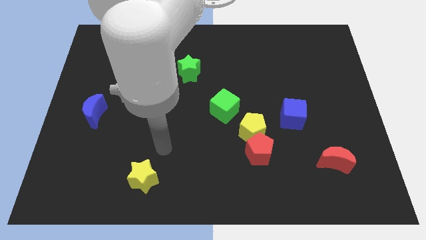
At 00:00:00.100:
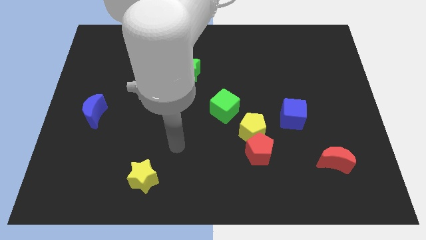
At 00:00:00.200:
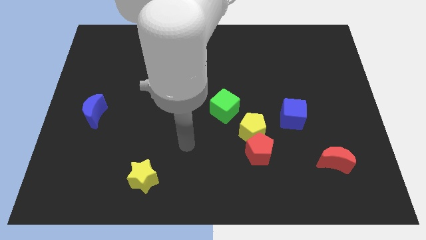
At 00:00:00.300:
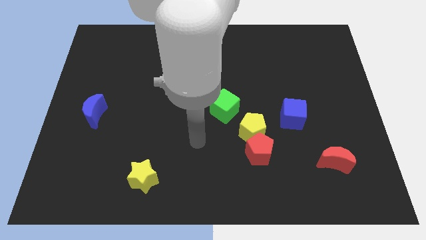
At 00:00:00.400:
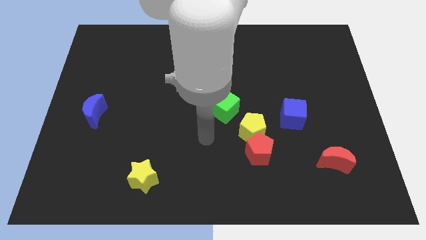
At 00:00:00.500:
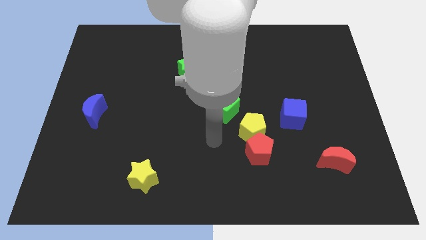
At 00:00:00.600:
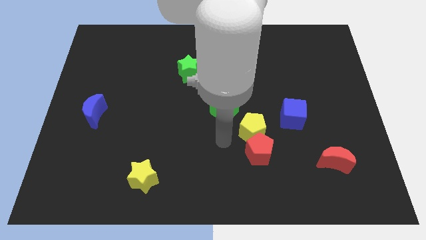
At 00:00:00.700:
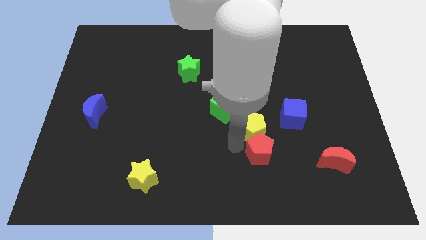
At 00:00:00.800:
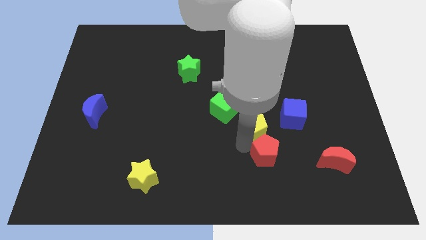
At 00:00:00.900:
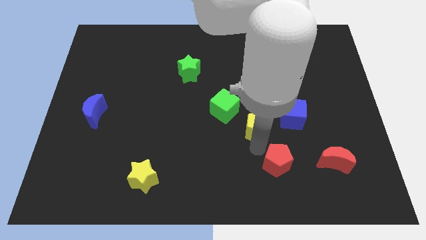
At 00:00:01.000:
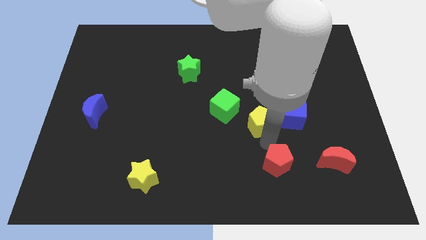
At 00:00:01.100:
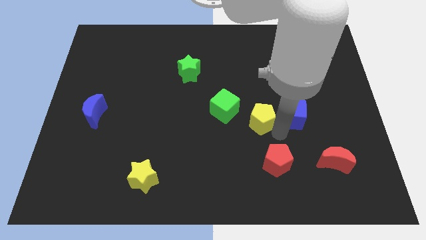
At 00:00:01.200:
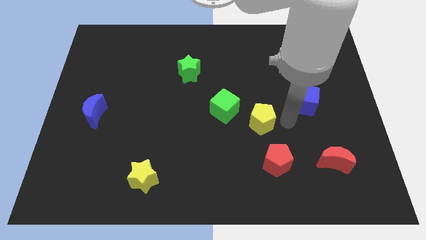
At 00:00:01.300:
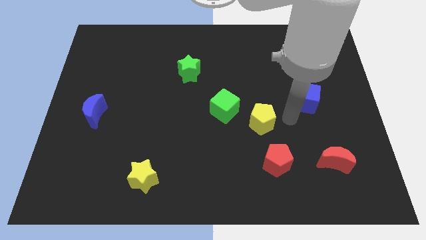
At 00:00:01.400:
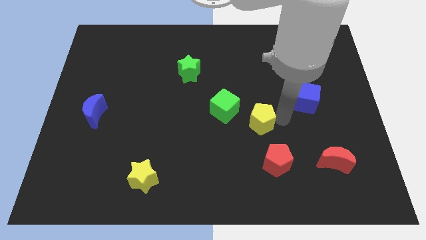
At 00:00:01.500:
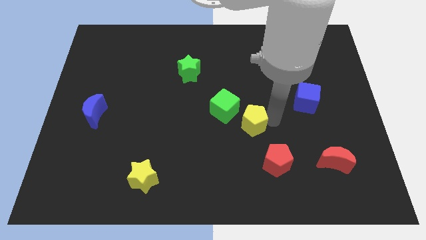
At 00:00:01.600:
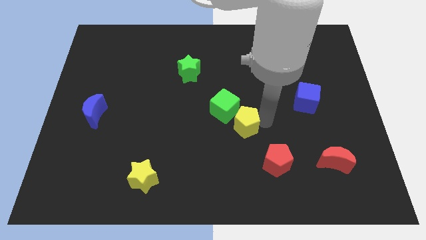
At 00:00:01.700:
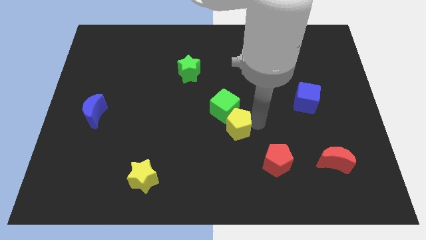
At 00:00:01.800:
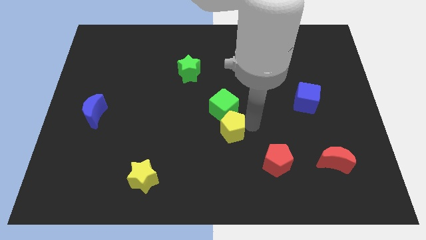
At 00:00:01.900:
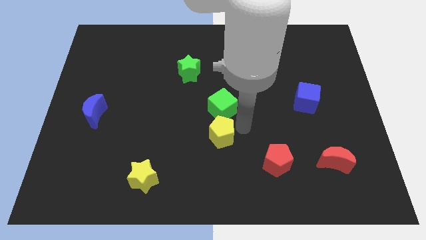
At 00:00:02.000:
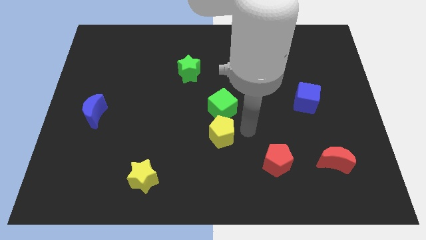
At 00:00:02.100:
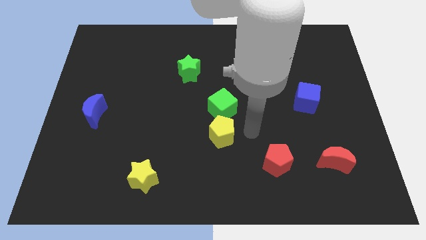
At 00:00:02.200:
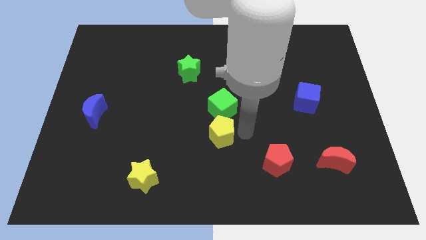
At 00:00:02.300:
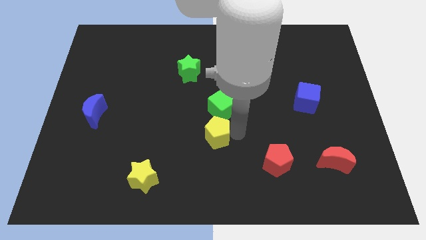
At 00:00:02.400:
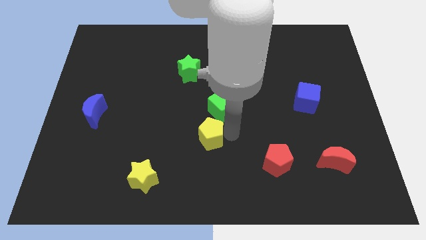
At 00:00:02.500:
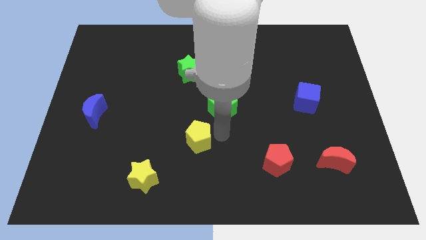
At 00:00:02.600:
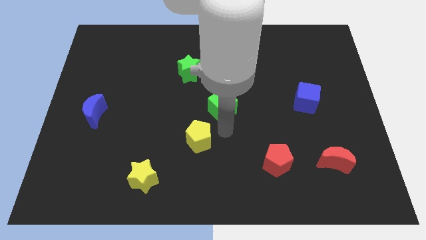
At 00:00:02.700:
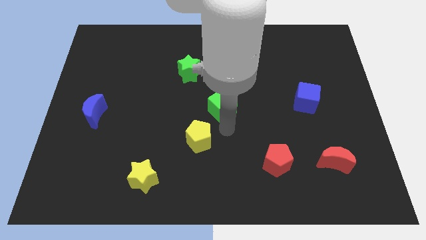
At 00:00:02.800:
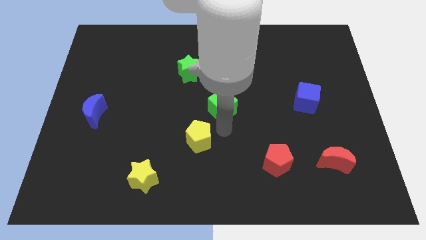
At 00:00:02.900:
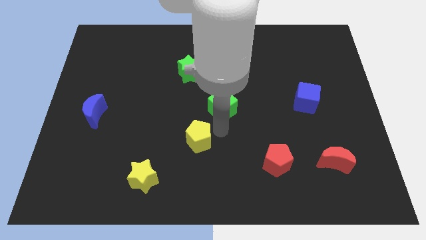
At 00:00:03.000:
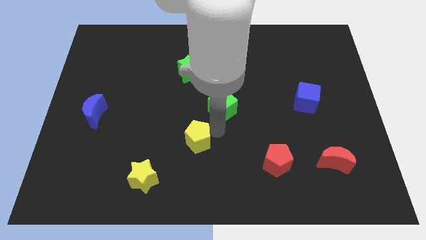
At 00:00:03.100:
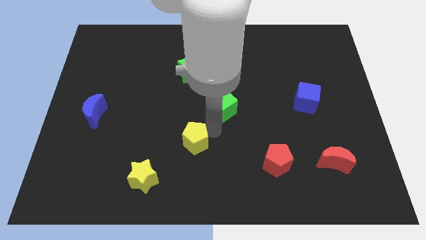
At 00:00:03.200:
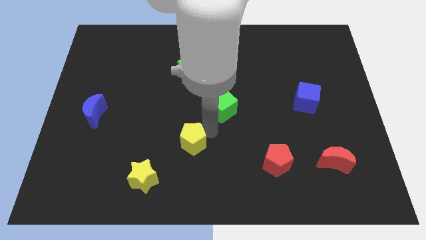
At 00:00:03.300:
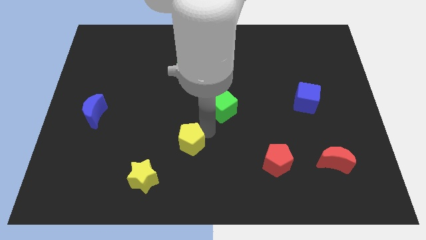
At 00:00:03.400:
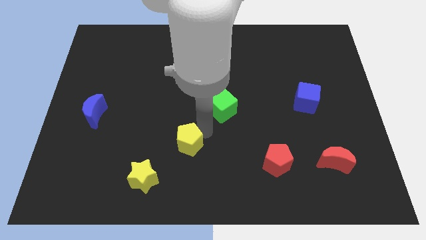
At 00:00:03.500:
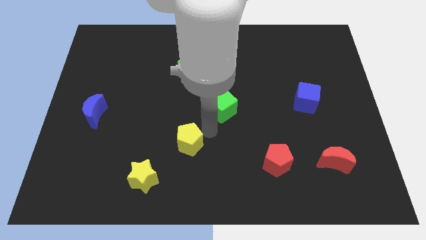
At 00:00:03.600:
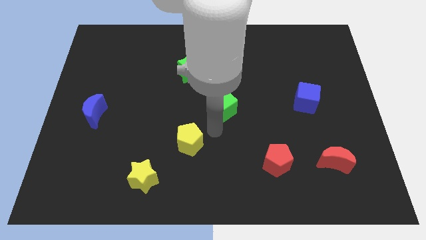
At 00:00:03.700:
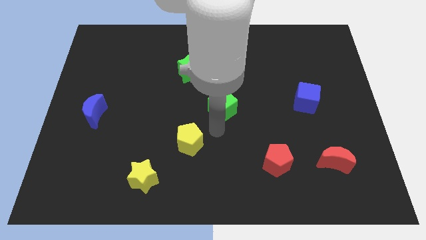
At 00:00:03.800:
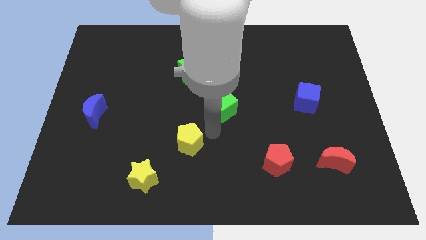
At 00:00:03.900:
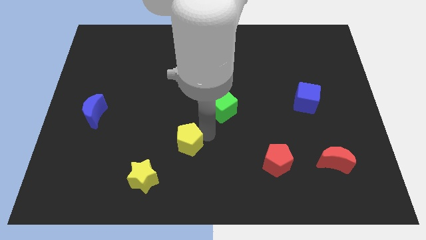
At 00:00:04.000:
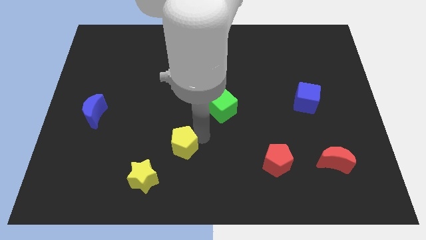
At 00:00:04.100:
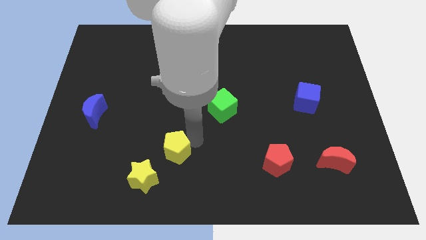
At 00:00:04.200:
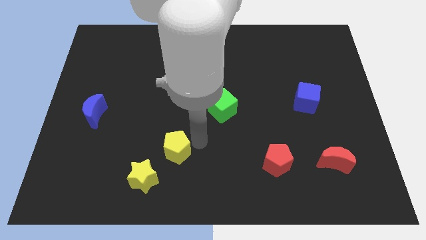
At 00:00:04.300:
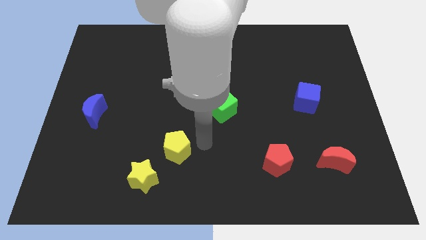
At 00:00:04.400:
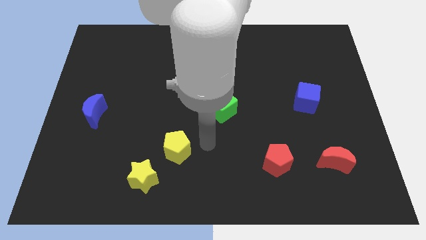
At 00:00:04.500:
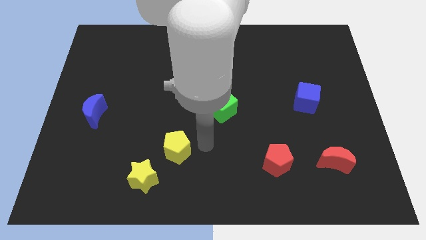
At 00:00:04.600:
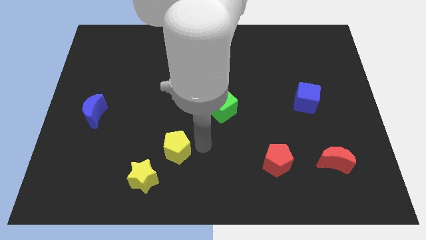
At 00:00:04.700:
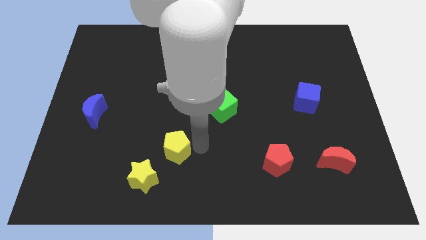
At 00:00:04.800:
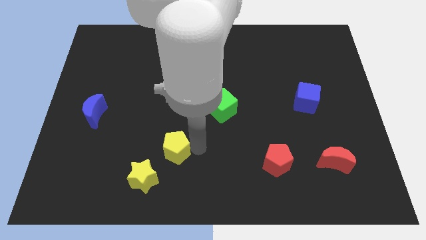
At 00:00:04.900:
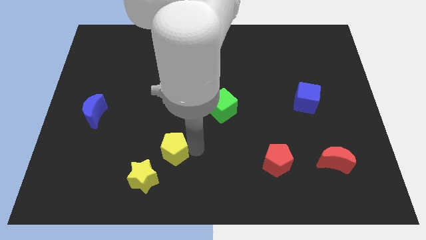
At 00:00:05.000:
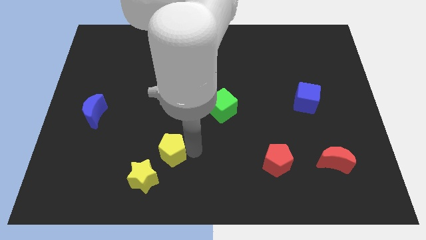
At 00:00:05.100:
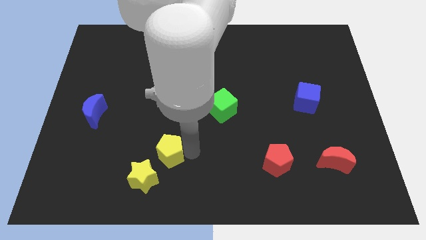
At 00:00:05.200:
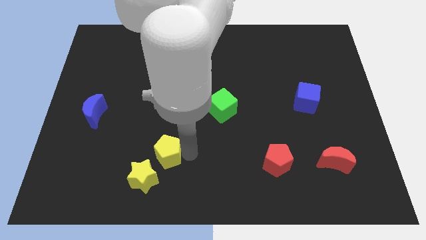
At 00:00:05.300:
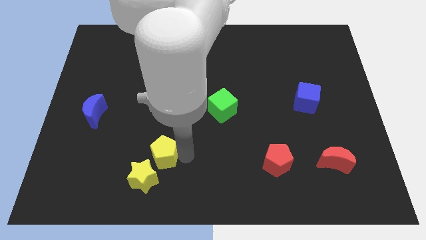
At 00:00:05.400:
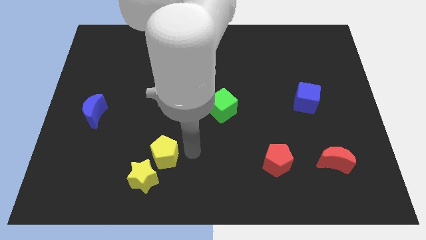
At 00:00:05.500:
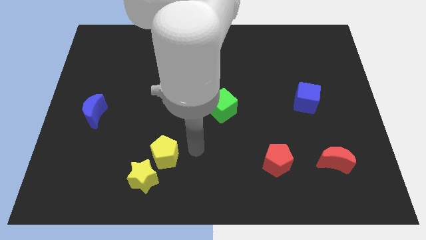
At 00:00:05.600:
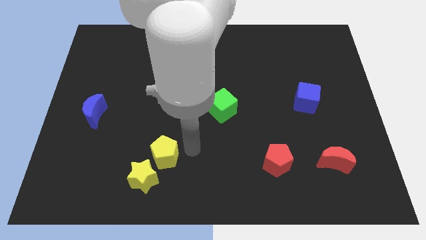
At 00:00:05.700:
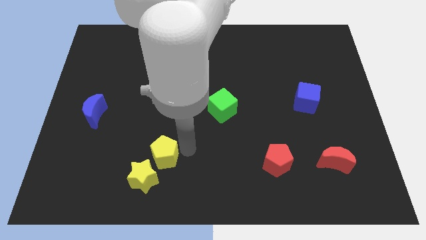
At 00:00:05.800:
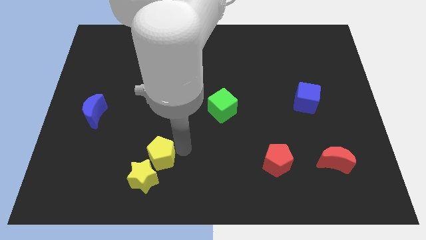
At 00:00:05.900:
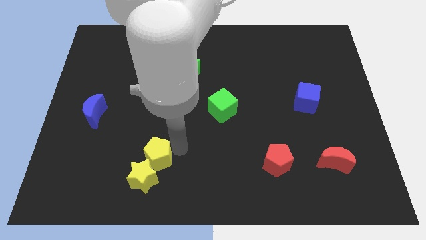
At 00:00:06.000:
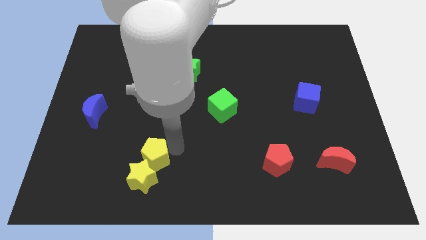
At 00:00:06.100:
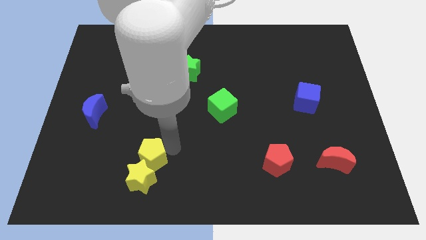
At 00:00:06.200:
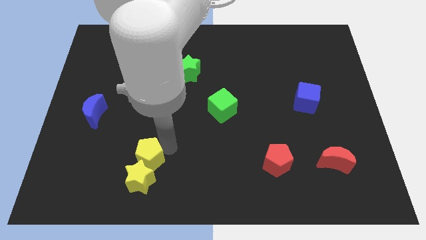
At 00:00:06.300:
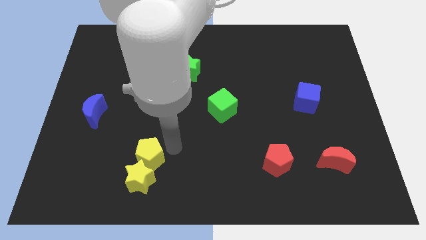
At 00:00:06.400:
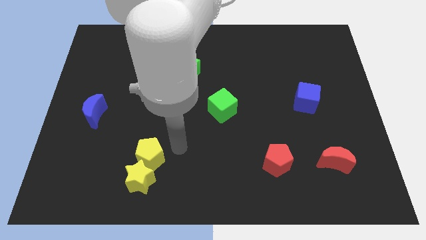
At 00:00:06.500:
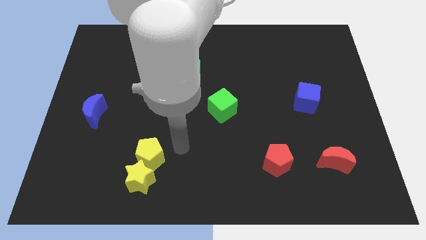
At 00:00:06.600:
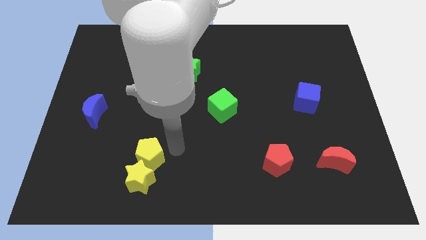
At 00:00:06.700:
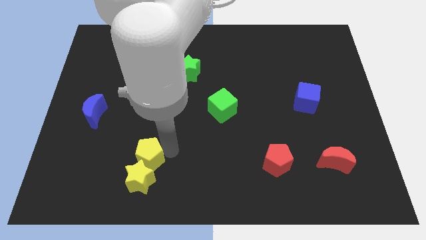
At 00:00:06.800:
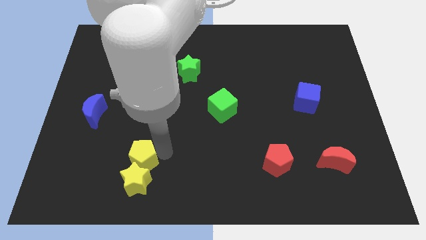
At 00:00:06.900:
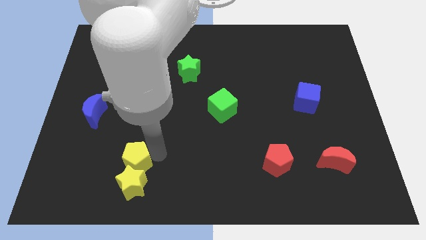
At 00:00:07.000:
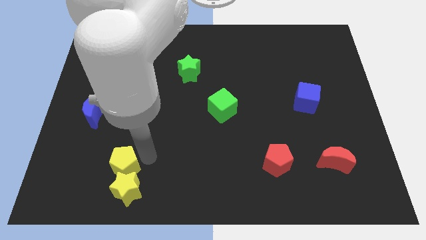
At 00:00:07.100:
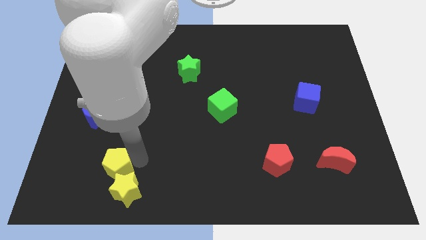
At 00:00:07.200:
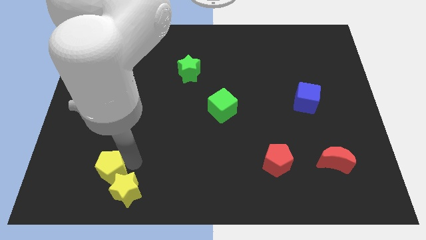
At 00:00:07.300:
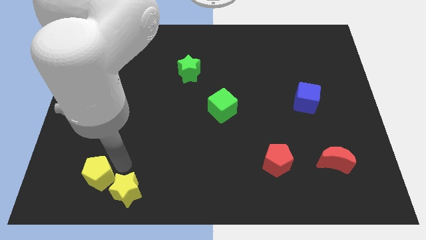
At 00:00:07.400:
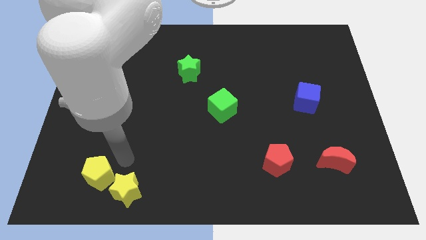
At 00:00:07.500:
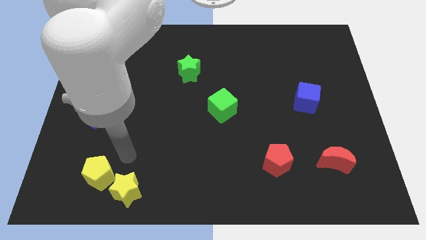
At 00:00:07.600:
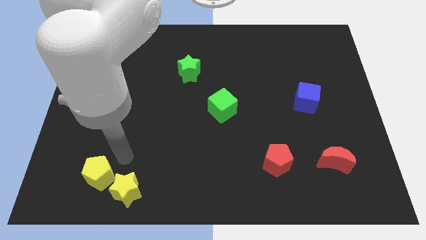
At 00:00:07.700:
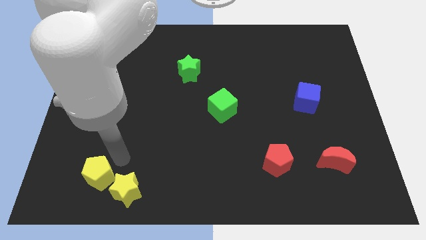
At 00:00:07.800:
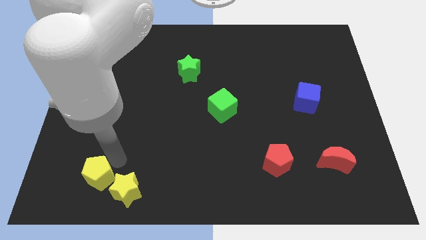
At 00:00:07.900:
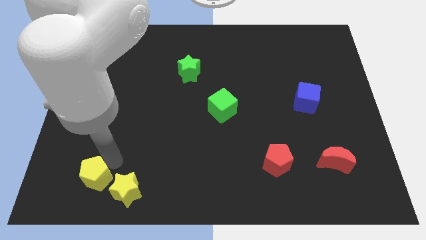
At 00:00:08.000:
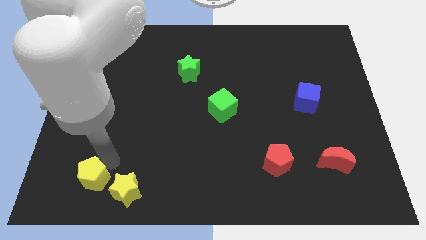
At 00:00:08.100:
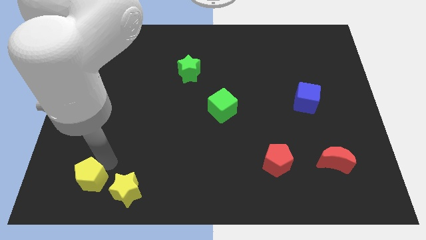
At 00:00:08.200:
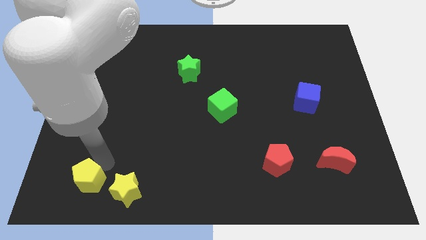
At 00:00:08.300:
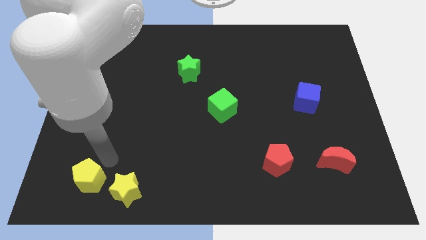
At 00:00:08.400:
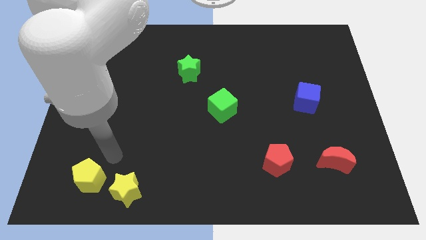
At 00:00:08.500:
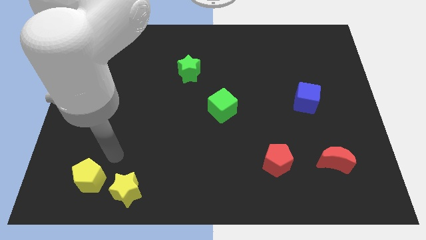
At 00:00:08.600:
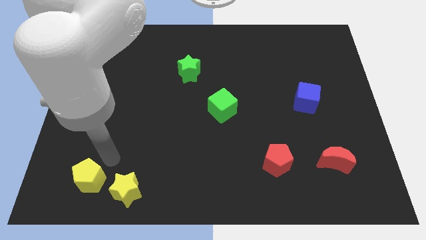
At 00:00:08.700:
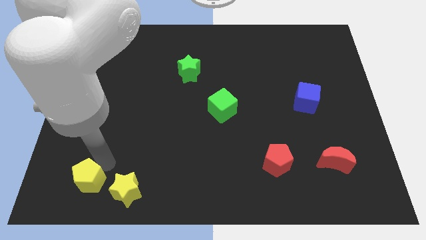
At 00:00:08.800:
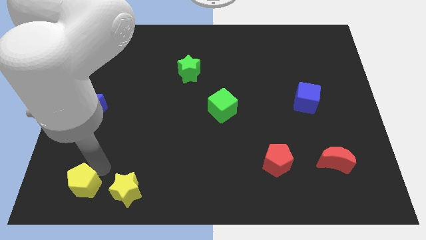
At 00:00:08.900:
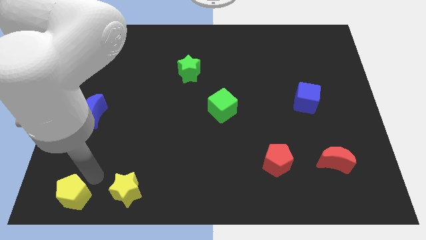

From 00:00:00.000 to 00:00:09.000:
slide the yellow pentagon to the bottom left
